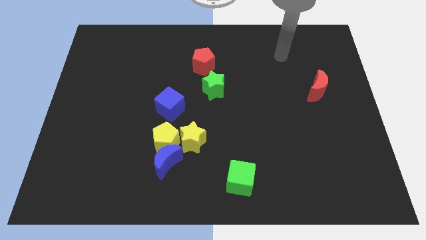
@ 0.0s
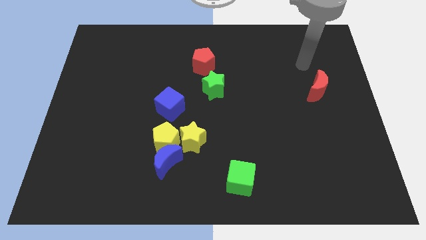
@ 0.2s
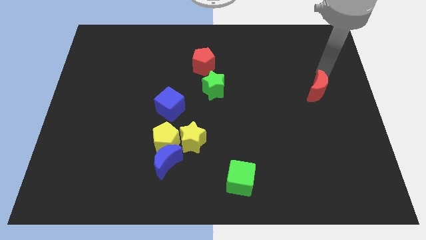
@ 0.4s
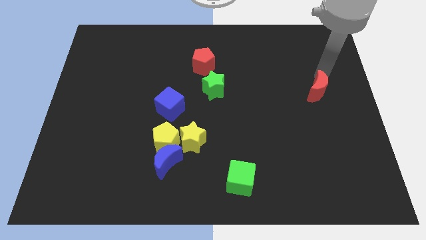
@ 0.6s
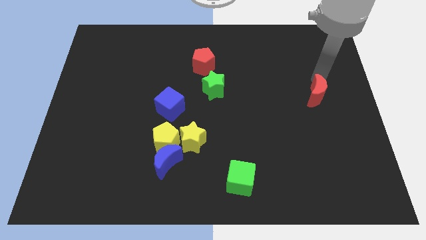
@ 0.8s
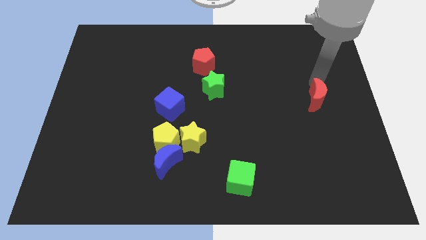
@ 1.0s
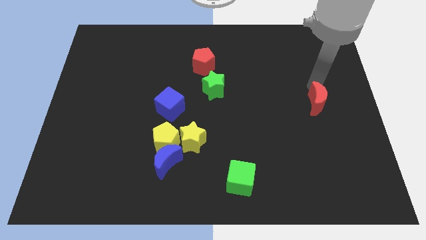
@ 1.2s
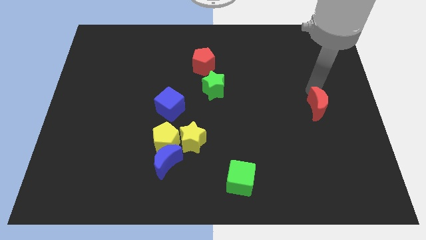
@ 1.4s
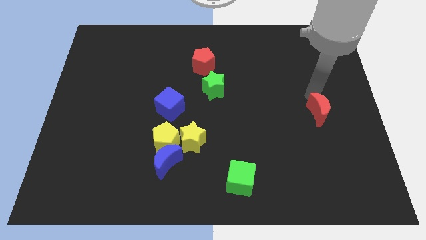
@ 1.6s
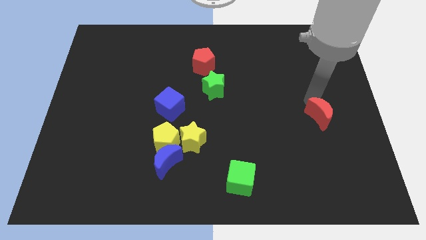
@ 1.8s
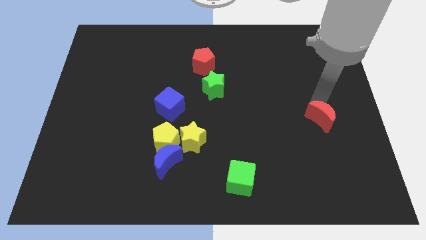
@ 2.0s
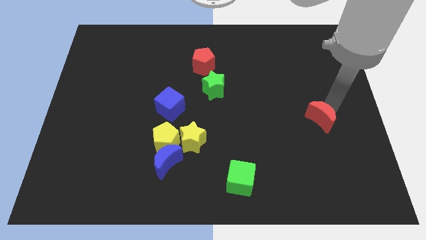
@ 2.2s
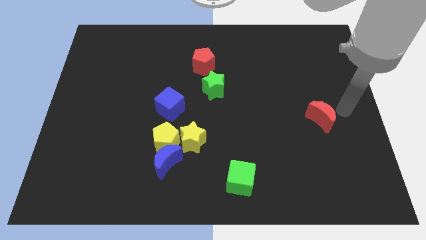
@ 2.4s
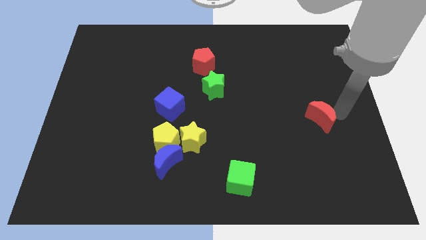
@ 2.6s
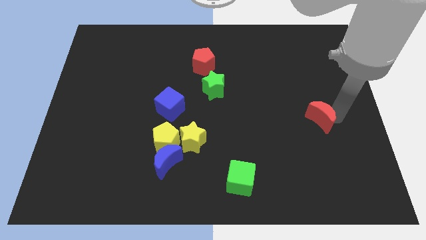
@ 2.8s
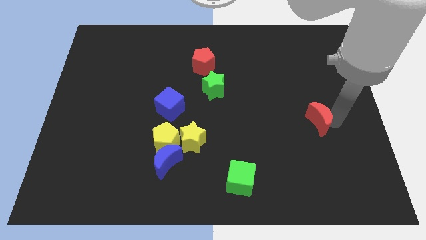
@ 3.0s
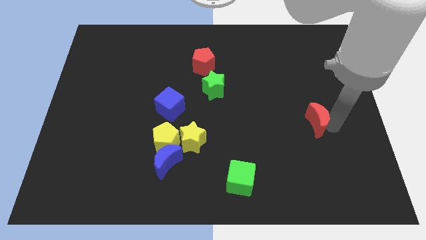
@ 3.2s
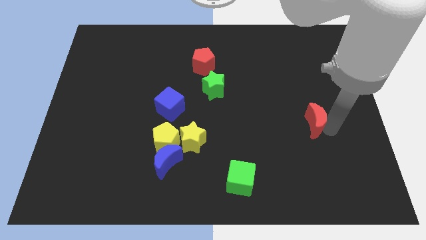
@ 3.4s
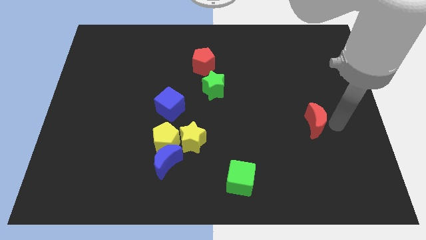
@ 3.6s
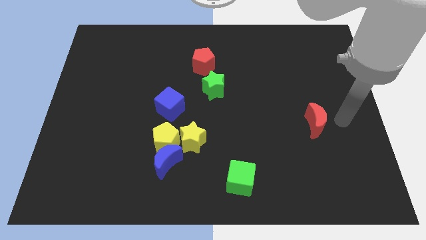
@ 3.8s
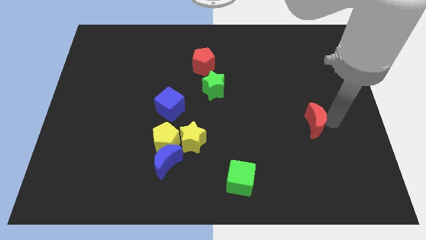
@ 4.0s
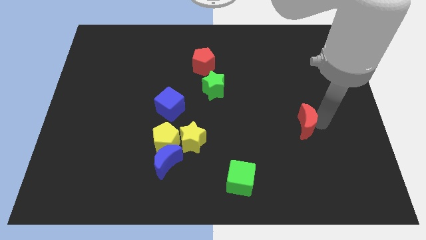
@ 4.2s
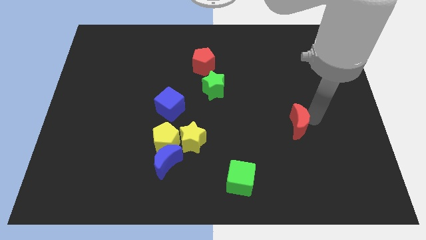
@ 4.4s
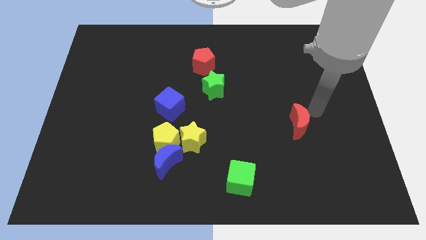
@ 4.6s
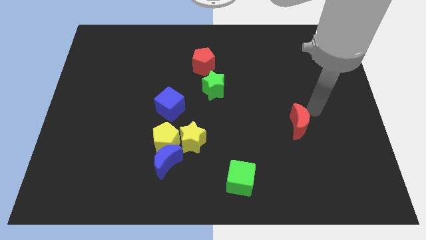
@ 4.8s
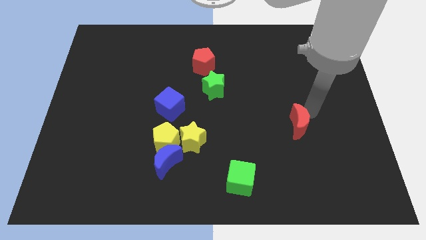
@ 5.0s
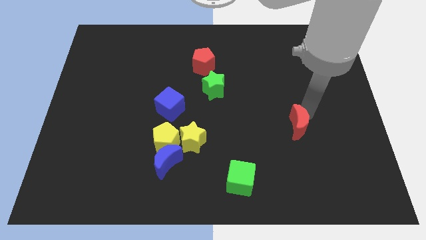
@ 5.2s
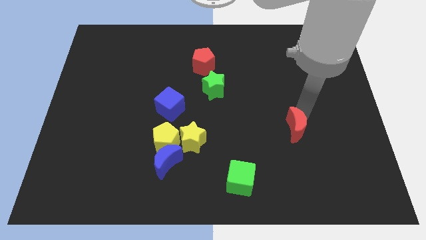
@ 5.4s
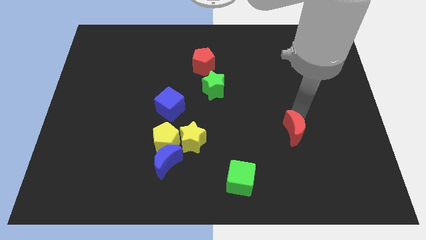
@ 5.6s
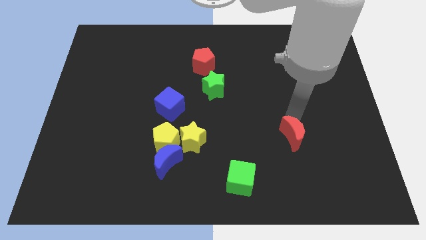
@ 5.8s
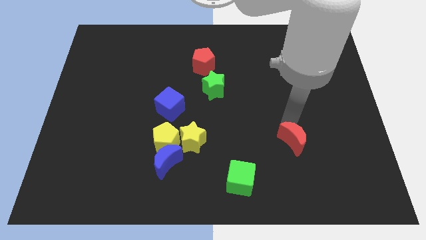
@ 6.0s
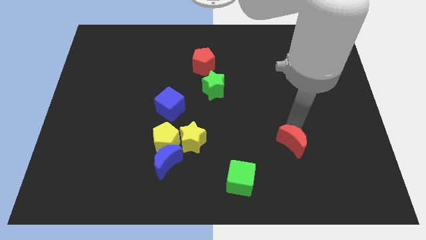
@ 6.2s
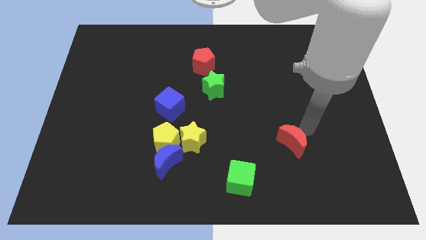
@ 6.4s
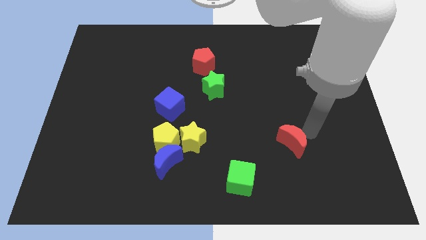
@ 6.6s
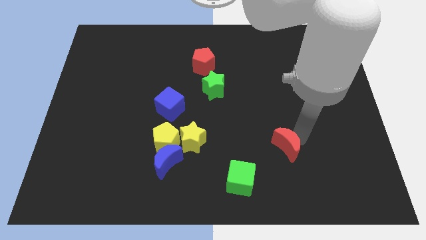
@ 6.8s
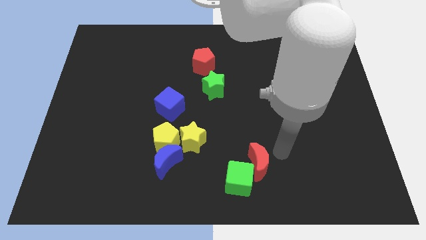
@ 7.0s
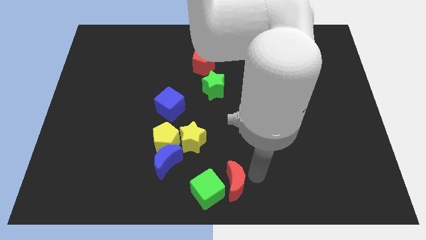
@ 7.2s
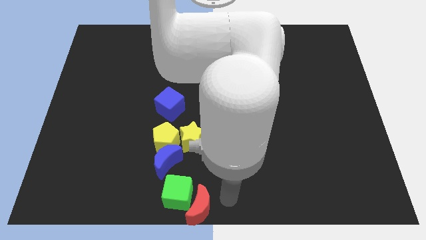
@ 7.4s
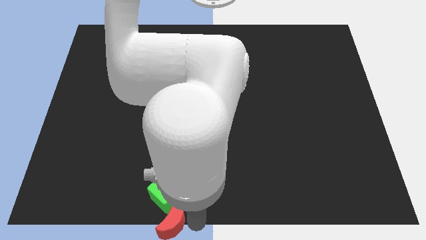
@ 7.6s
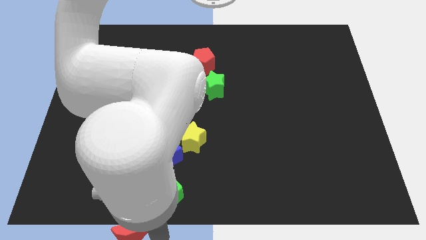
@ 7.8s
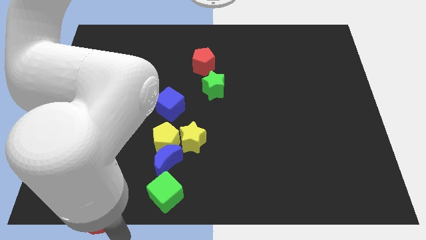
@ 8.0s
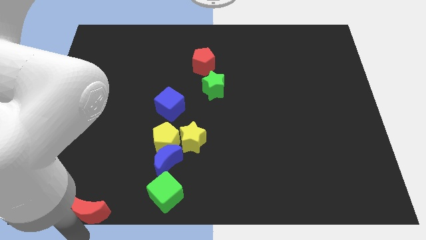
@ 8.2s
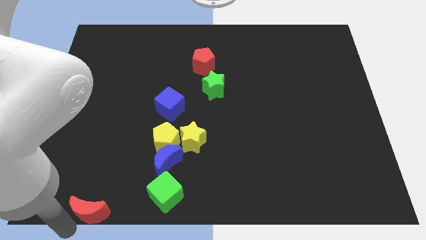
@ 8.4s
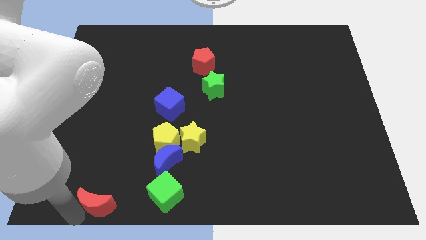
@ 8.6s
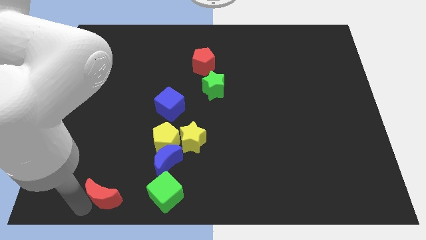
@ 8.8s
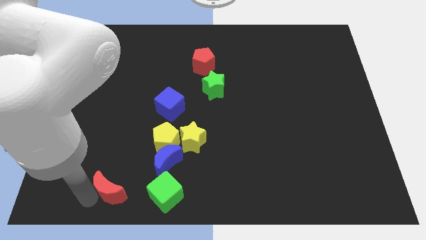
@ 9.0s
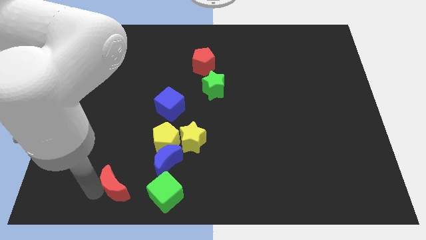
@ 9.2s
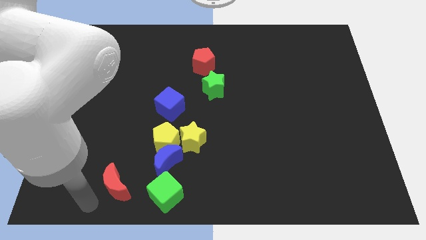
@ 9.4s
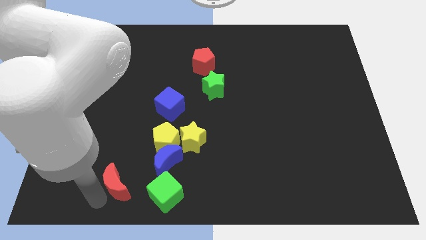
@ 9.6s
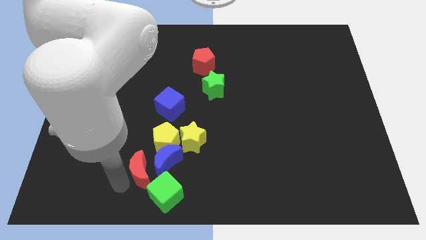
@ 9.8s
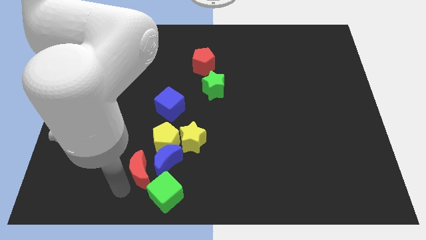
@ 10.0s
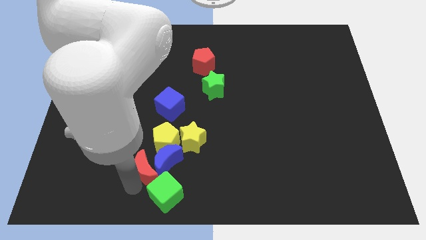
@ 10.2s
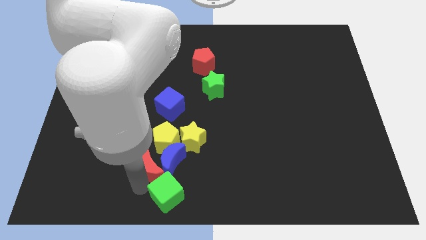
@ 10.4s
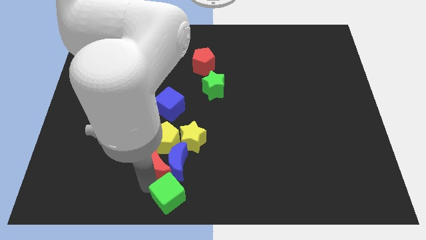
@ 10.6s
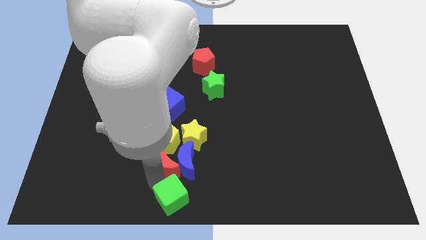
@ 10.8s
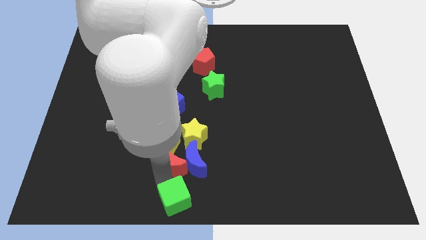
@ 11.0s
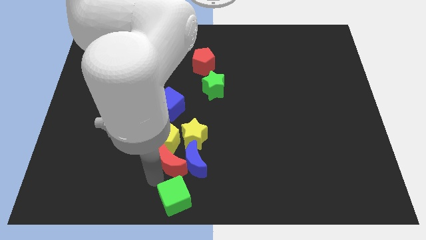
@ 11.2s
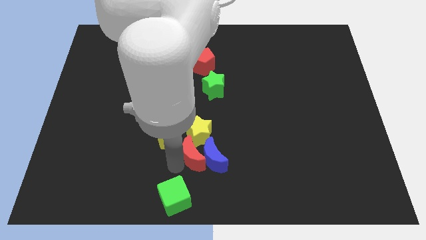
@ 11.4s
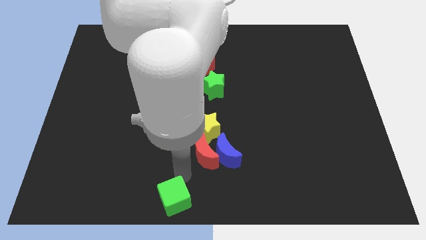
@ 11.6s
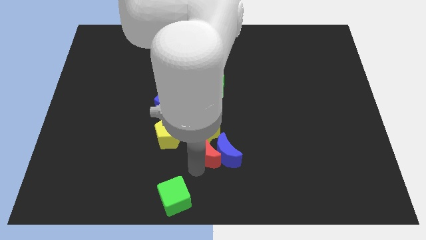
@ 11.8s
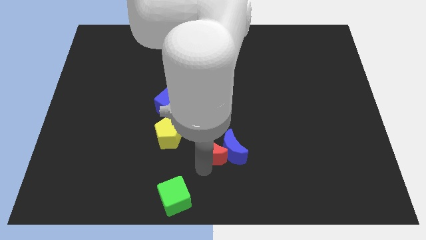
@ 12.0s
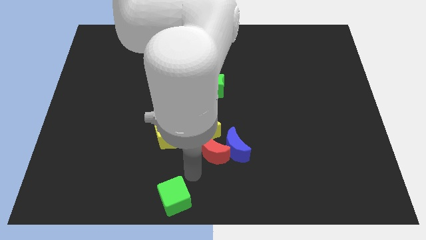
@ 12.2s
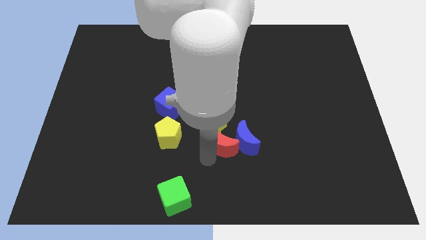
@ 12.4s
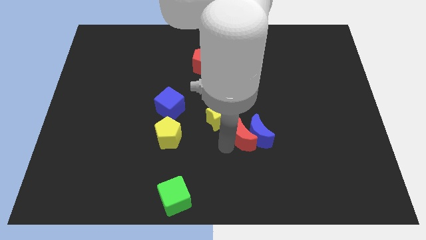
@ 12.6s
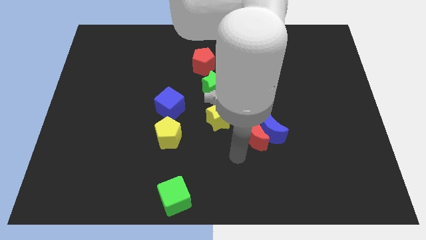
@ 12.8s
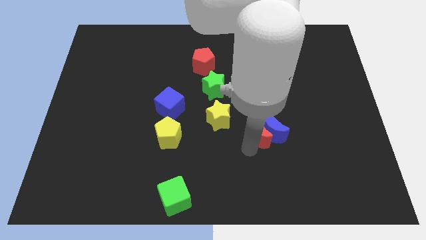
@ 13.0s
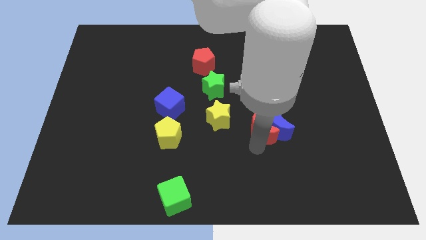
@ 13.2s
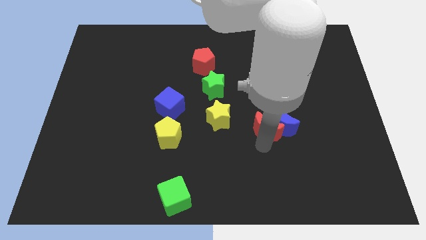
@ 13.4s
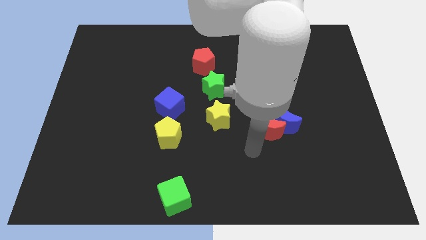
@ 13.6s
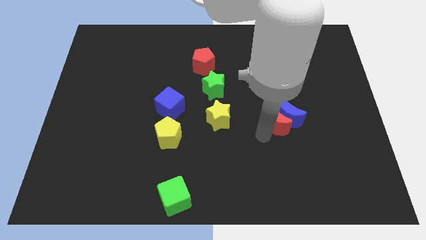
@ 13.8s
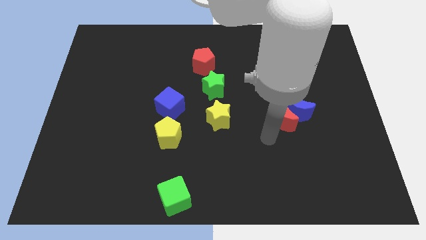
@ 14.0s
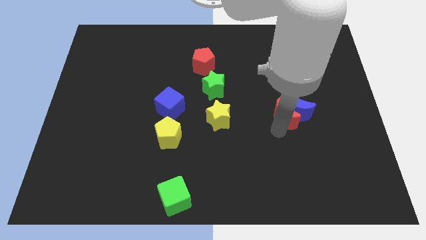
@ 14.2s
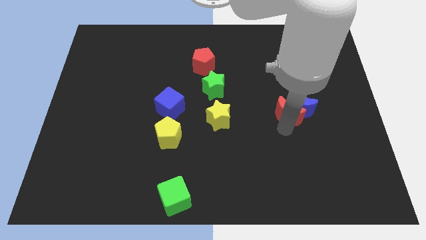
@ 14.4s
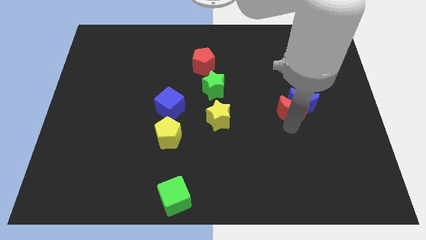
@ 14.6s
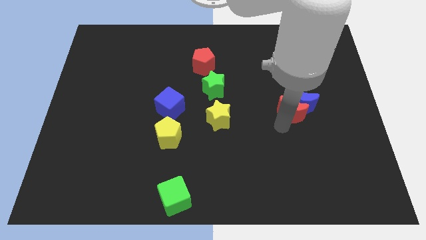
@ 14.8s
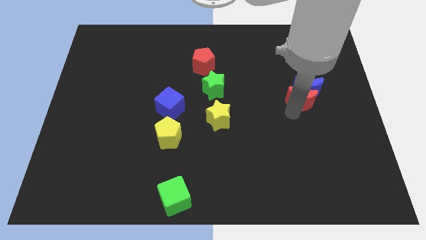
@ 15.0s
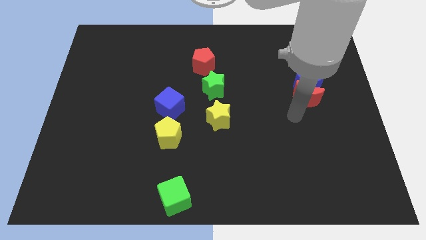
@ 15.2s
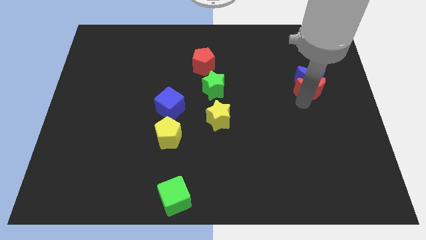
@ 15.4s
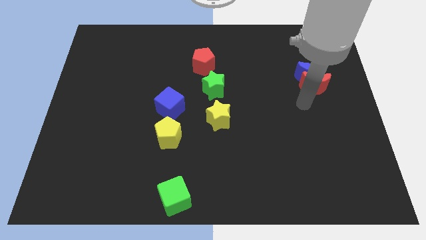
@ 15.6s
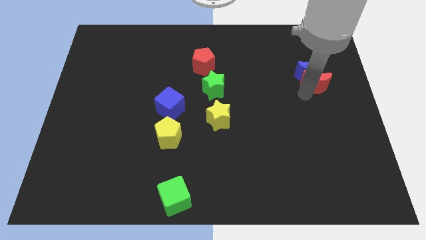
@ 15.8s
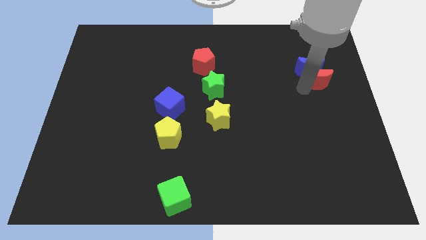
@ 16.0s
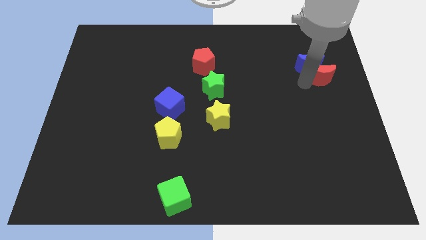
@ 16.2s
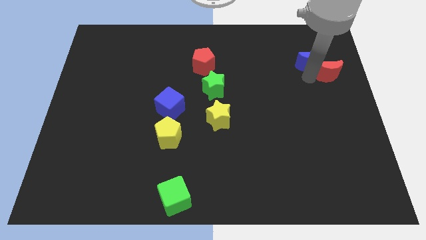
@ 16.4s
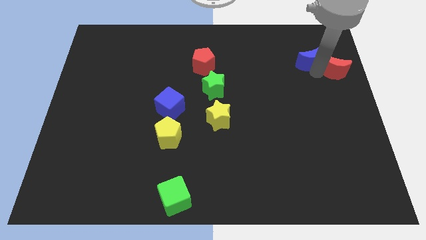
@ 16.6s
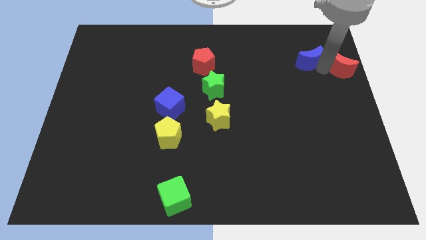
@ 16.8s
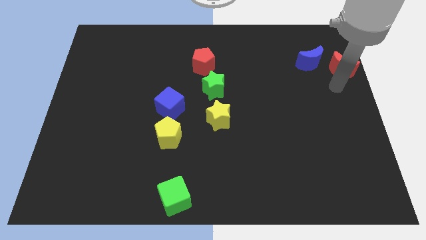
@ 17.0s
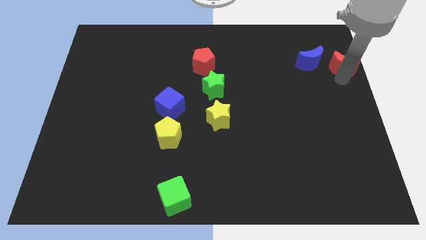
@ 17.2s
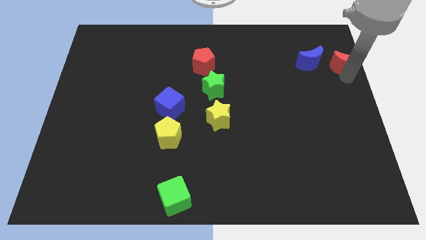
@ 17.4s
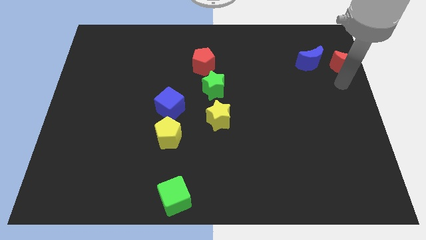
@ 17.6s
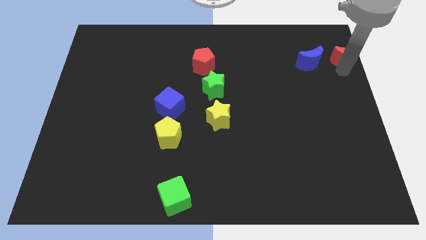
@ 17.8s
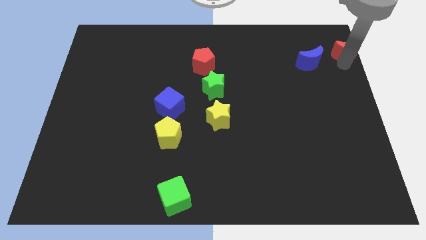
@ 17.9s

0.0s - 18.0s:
put the red moon to the upper right corner
